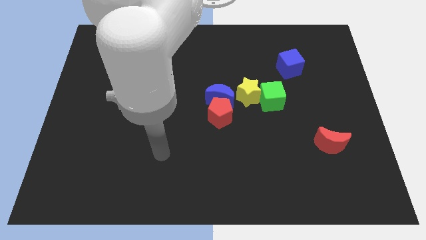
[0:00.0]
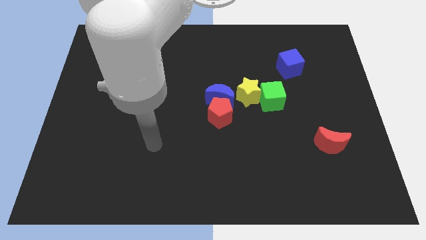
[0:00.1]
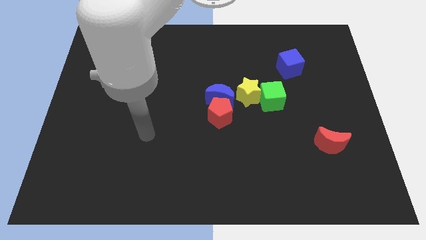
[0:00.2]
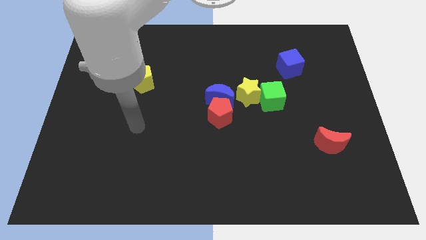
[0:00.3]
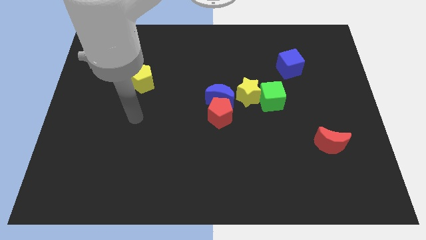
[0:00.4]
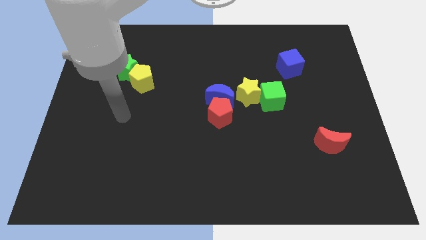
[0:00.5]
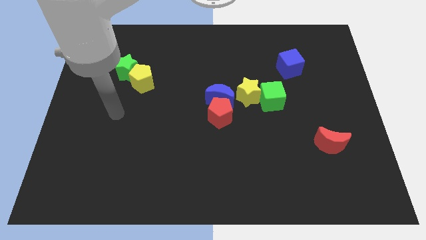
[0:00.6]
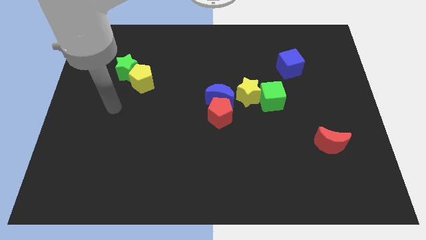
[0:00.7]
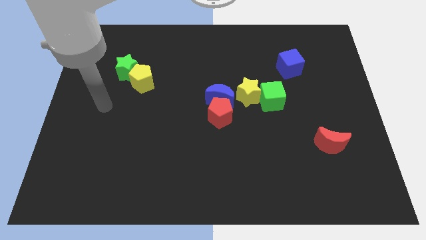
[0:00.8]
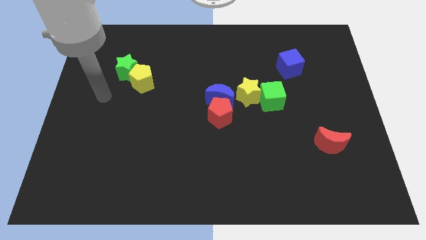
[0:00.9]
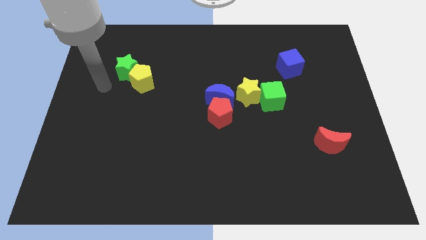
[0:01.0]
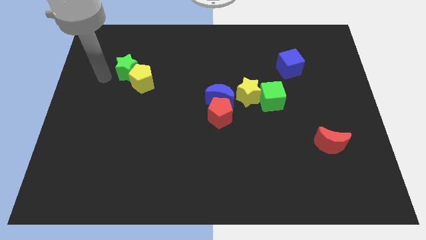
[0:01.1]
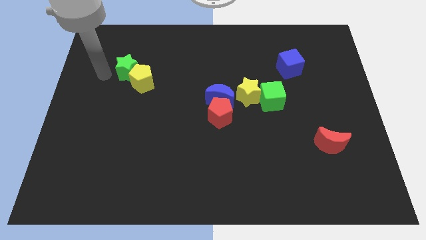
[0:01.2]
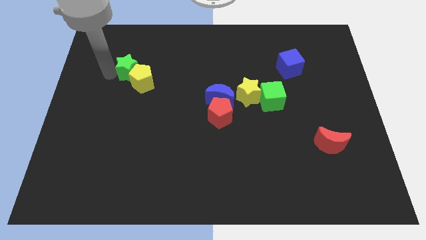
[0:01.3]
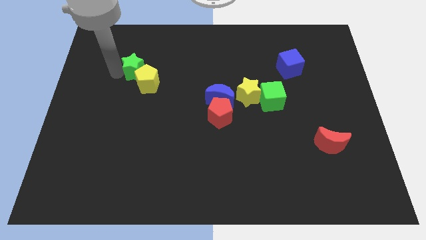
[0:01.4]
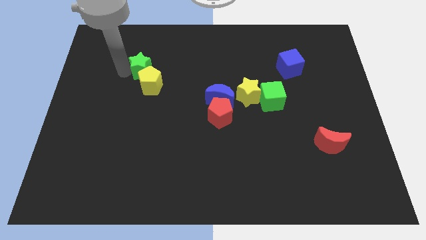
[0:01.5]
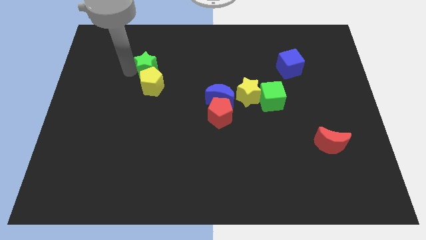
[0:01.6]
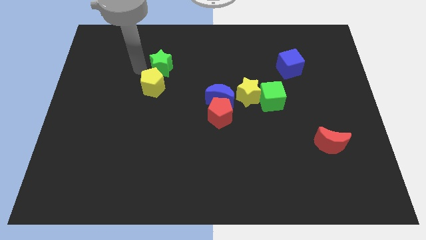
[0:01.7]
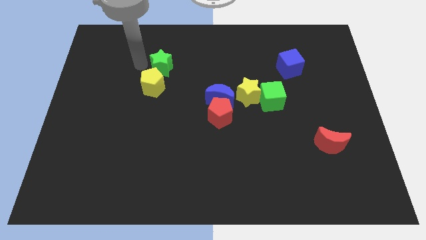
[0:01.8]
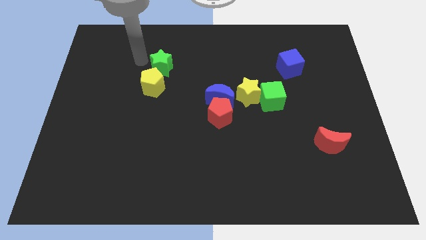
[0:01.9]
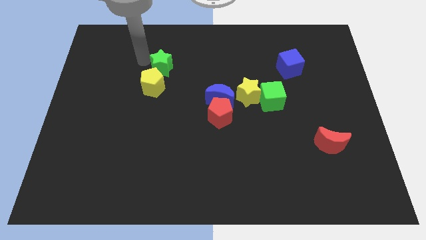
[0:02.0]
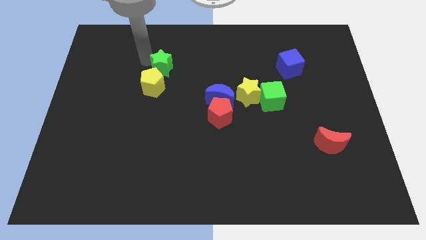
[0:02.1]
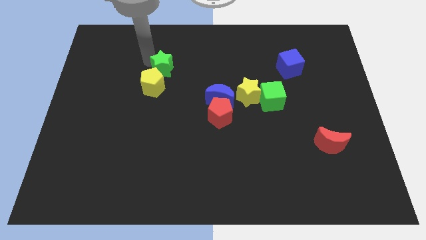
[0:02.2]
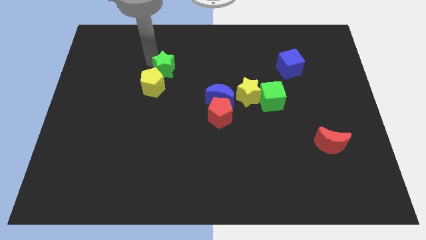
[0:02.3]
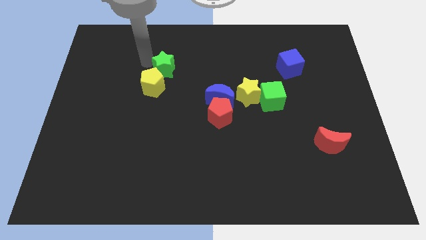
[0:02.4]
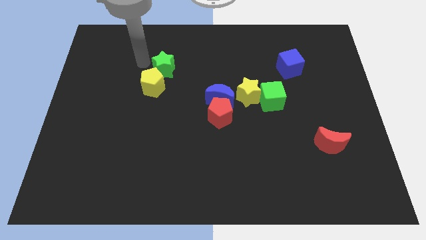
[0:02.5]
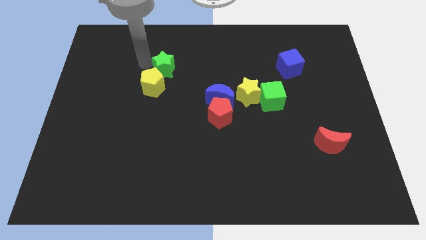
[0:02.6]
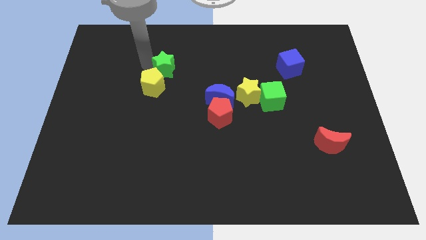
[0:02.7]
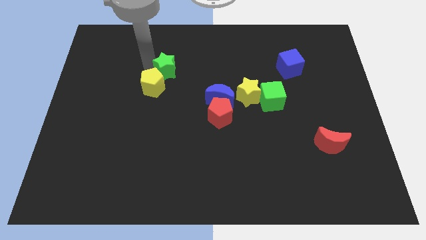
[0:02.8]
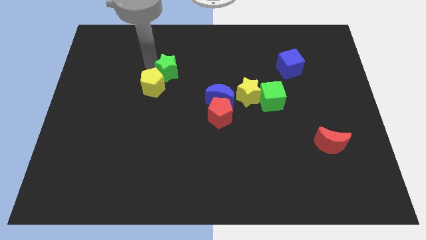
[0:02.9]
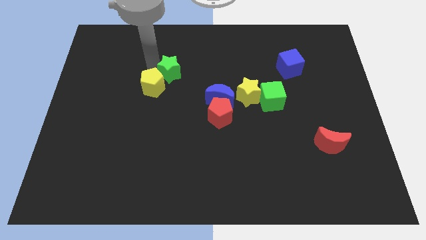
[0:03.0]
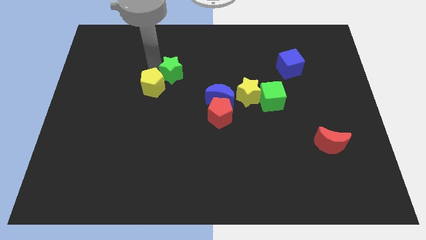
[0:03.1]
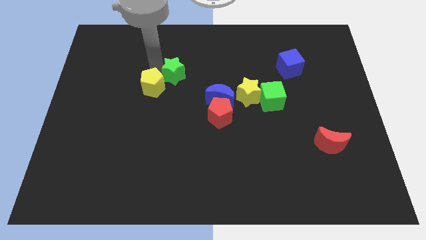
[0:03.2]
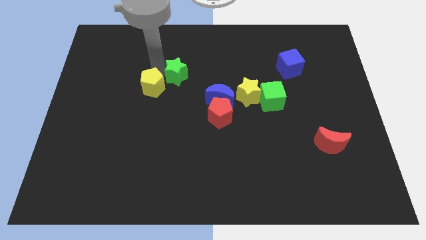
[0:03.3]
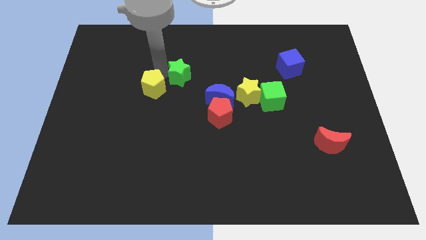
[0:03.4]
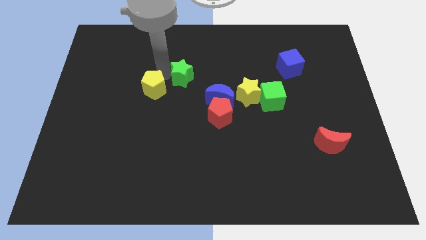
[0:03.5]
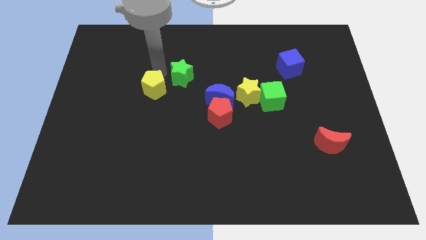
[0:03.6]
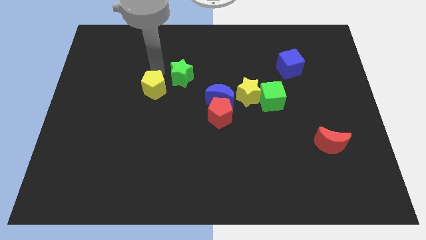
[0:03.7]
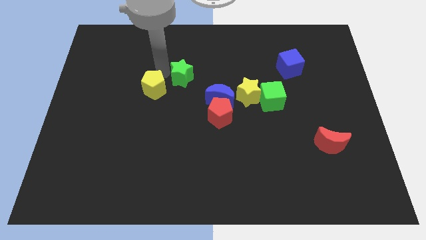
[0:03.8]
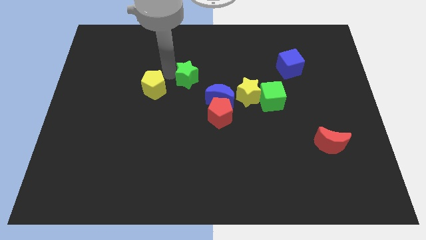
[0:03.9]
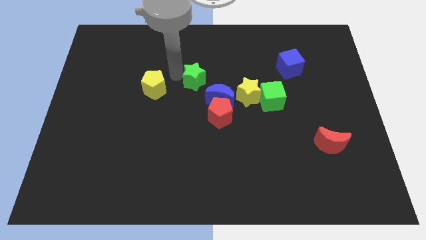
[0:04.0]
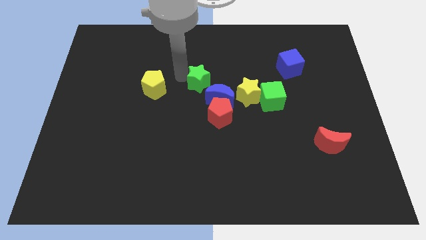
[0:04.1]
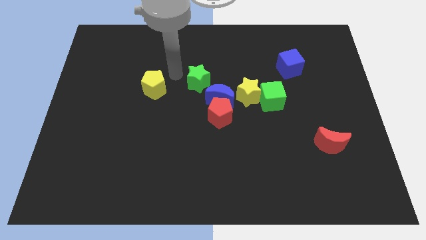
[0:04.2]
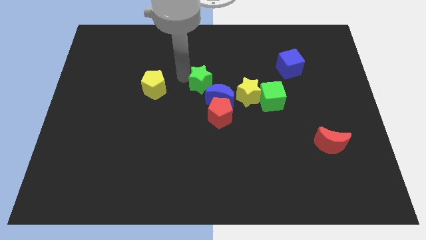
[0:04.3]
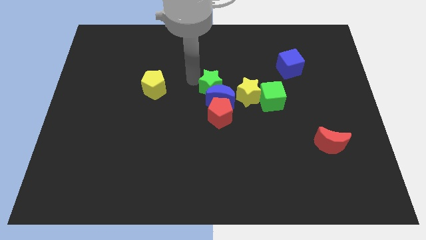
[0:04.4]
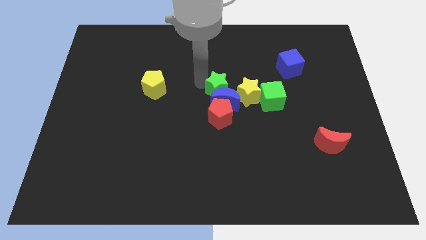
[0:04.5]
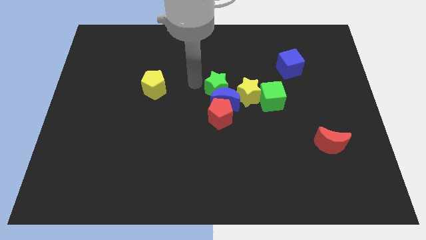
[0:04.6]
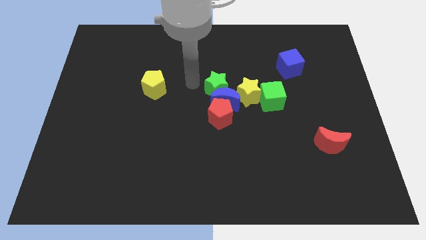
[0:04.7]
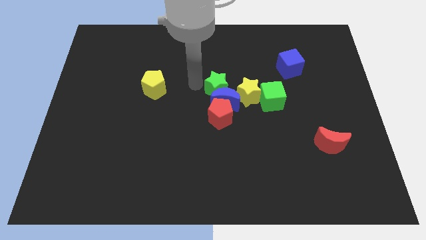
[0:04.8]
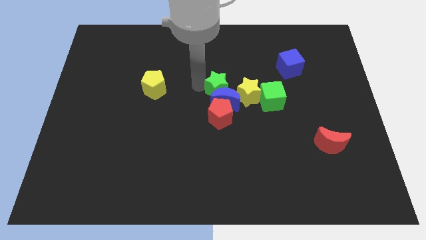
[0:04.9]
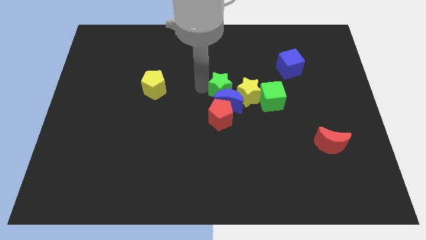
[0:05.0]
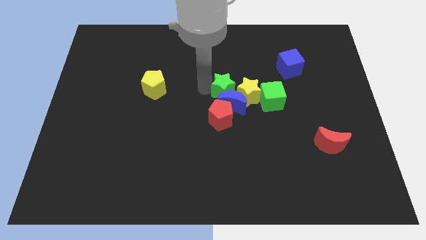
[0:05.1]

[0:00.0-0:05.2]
push the green star towards the yellow star

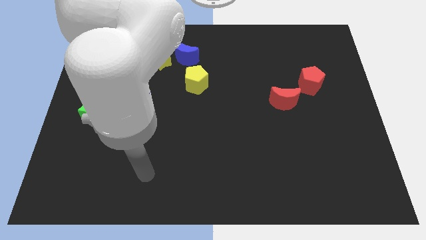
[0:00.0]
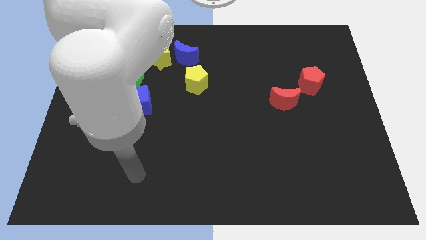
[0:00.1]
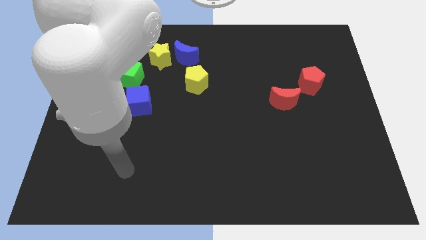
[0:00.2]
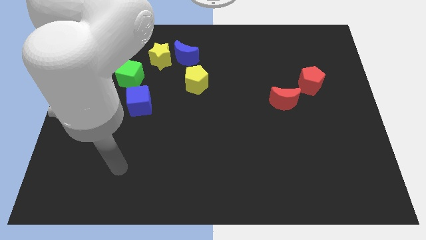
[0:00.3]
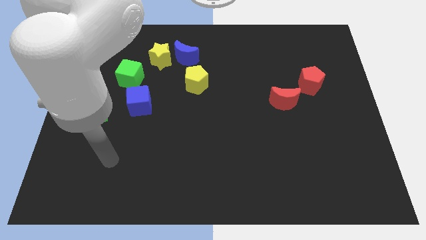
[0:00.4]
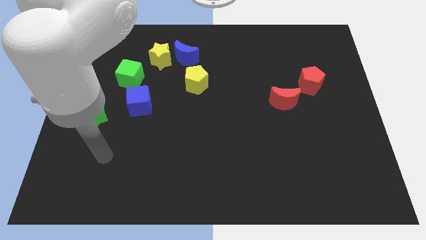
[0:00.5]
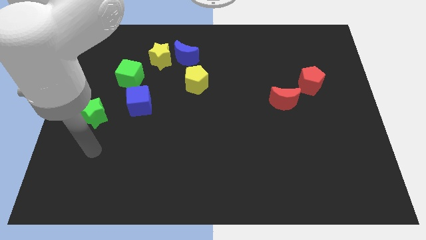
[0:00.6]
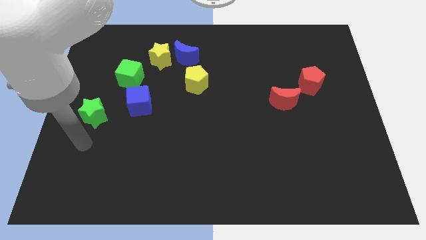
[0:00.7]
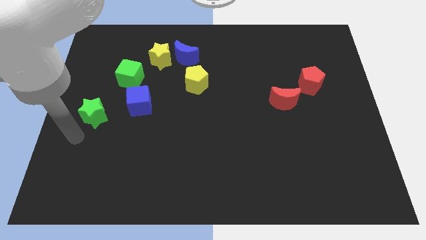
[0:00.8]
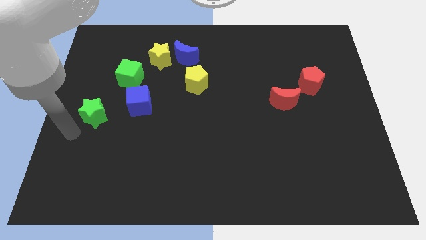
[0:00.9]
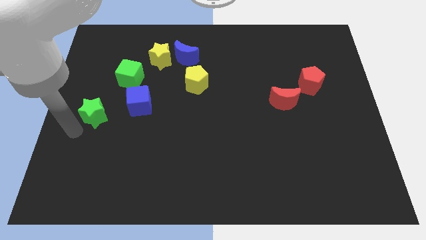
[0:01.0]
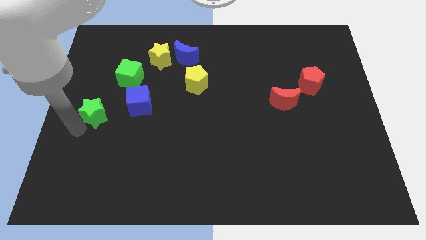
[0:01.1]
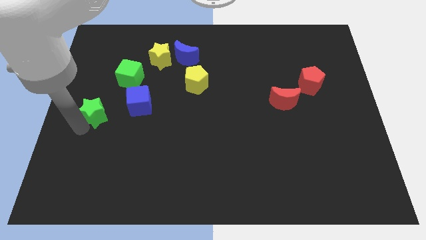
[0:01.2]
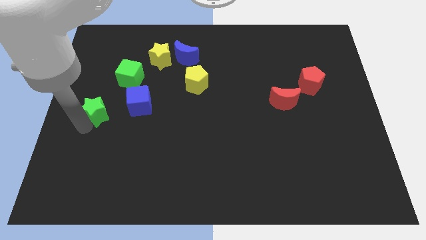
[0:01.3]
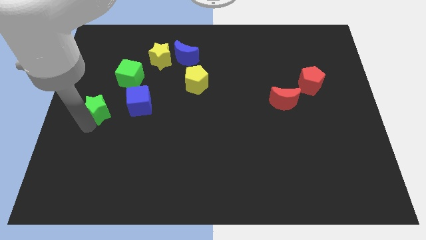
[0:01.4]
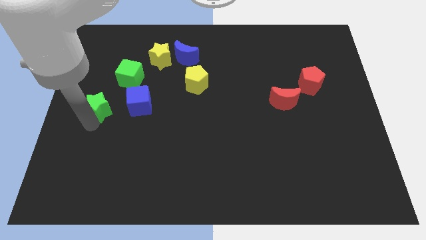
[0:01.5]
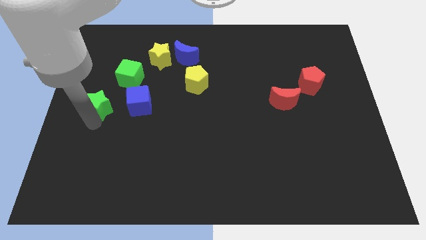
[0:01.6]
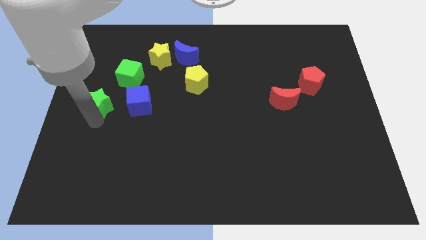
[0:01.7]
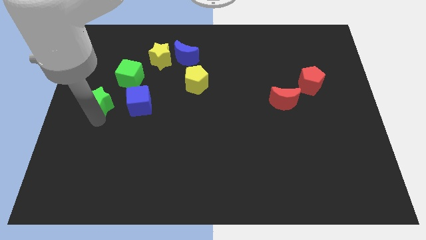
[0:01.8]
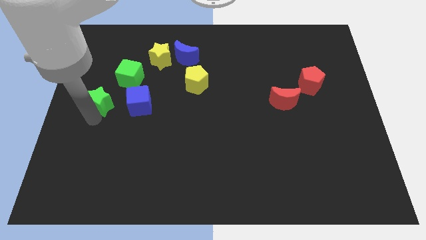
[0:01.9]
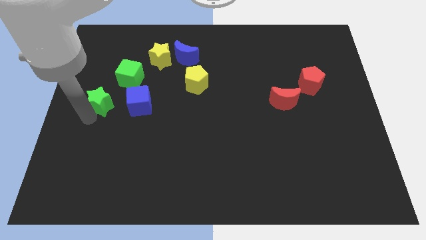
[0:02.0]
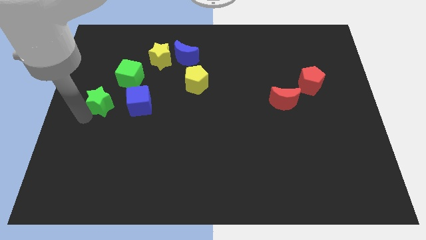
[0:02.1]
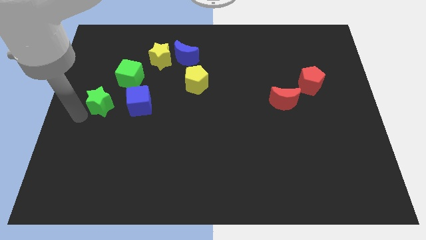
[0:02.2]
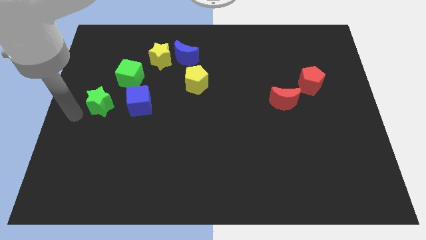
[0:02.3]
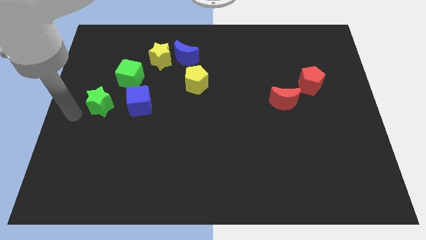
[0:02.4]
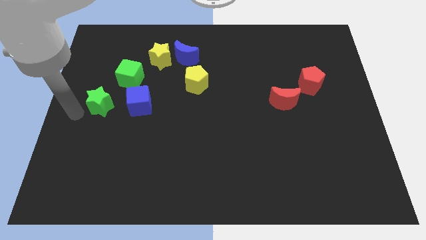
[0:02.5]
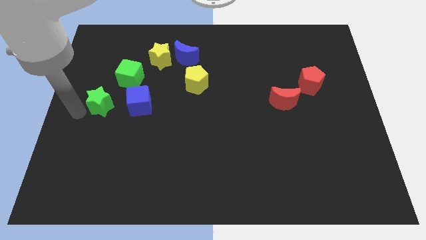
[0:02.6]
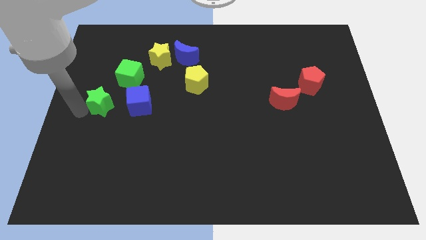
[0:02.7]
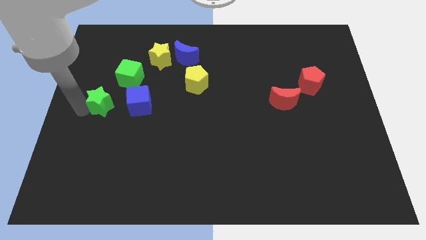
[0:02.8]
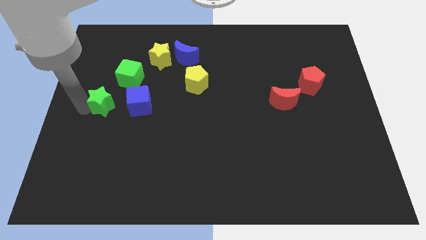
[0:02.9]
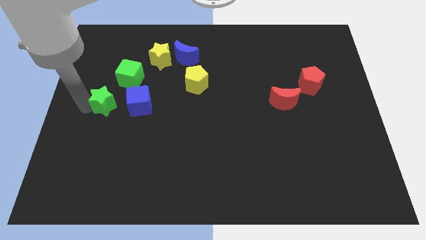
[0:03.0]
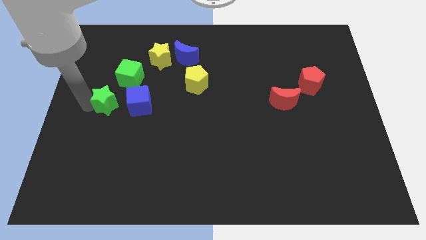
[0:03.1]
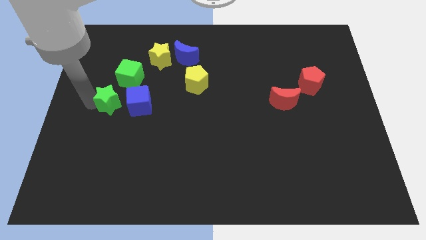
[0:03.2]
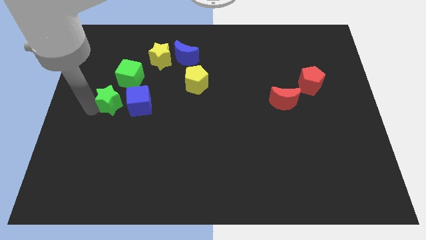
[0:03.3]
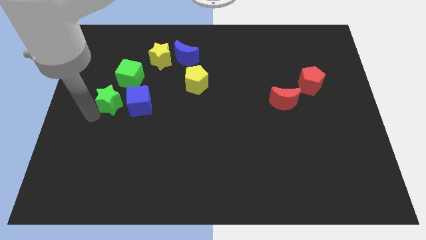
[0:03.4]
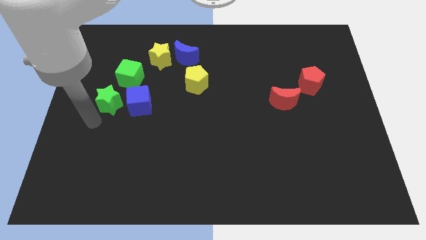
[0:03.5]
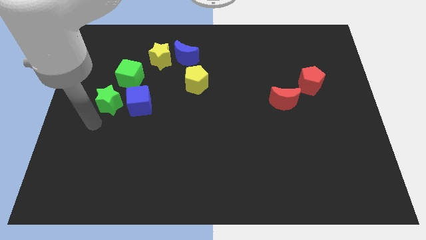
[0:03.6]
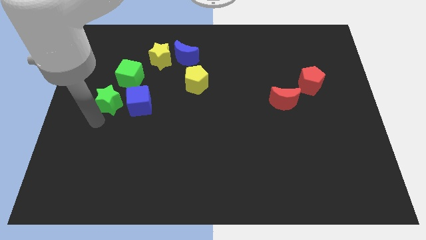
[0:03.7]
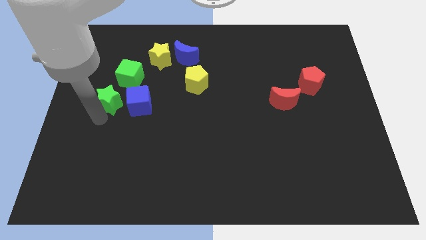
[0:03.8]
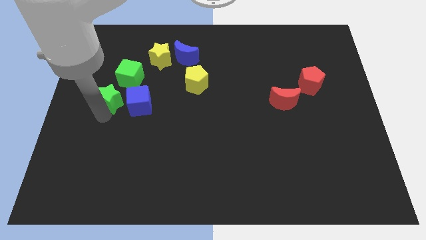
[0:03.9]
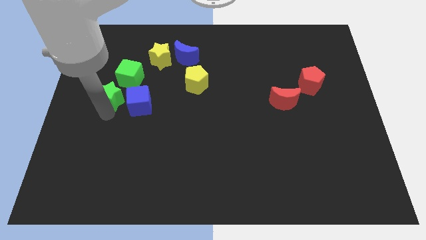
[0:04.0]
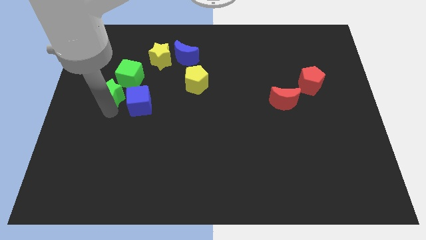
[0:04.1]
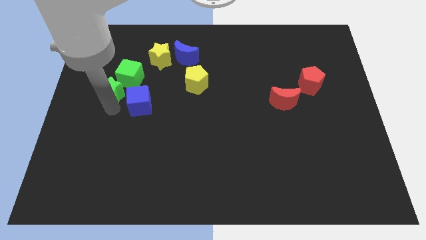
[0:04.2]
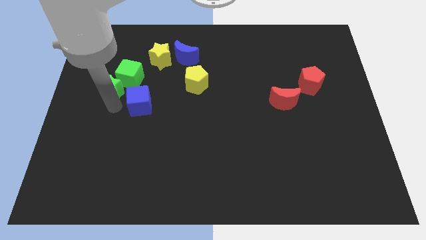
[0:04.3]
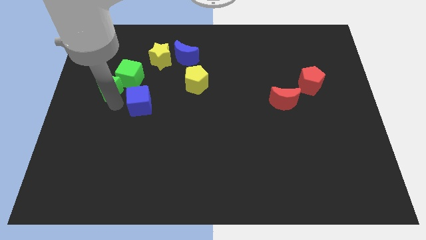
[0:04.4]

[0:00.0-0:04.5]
push the green star close to the green cube
